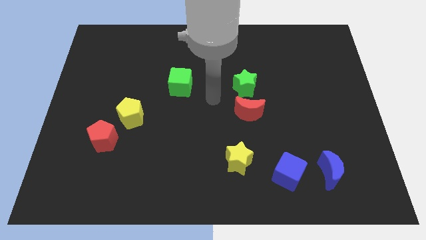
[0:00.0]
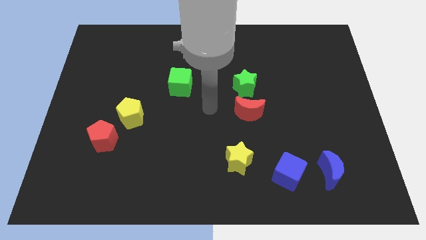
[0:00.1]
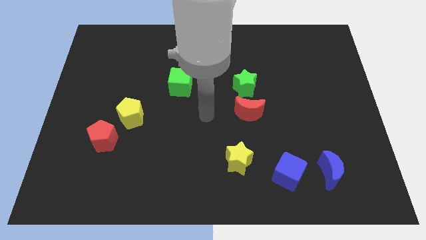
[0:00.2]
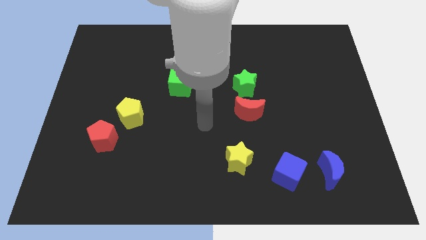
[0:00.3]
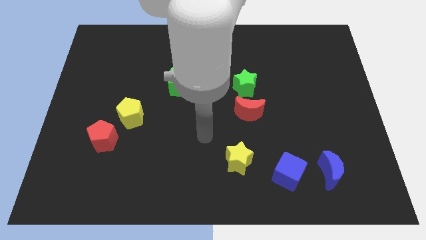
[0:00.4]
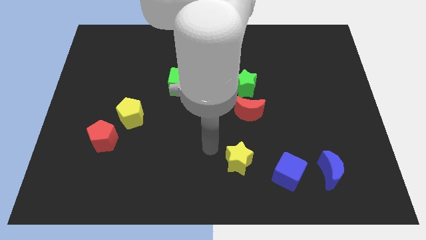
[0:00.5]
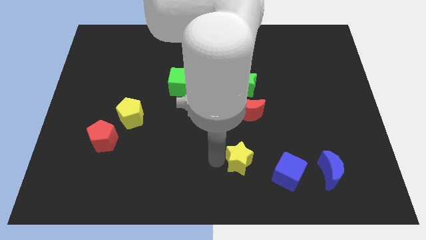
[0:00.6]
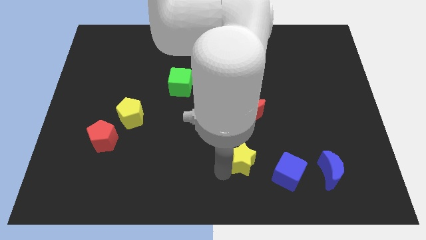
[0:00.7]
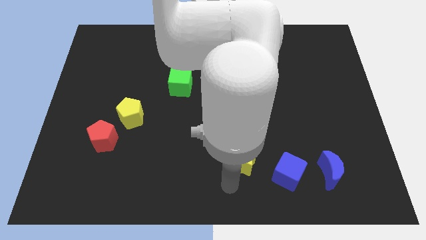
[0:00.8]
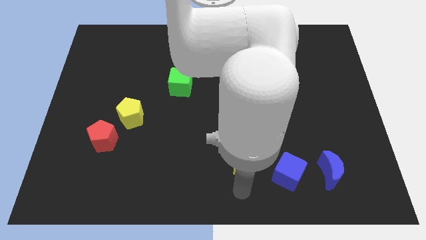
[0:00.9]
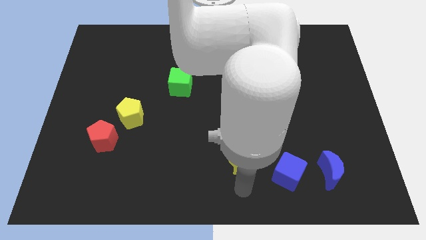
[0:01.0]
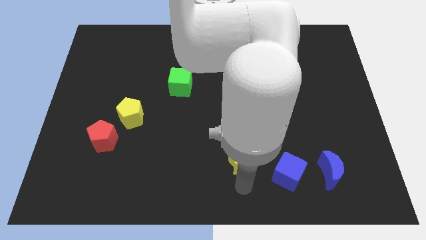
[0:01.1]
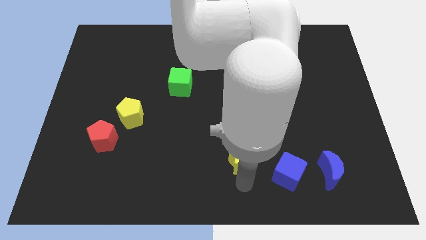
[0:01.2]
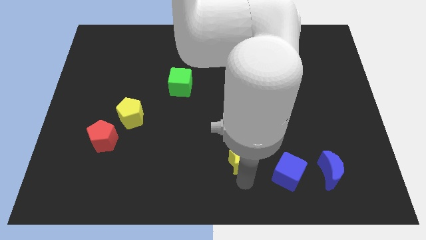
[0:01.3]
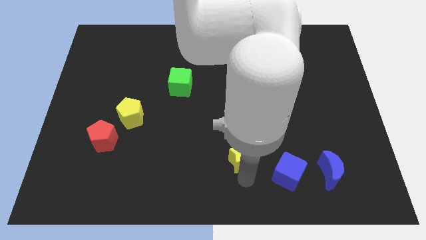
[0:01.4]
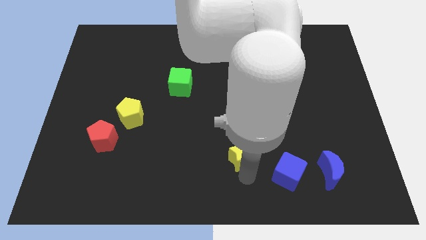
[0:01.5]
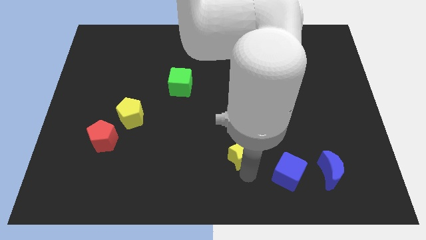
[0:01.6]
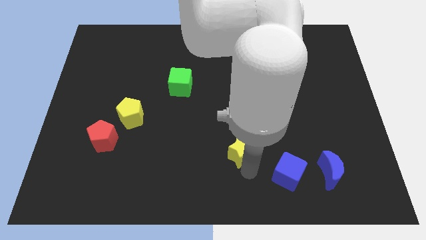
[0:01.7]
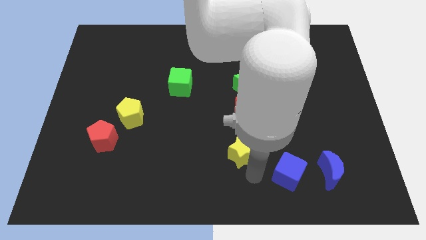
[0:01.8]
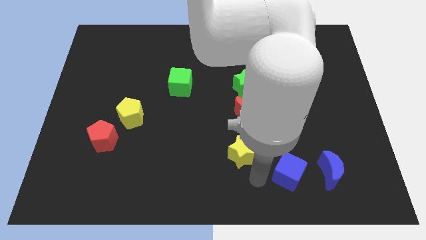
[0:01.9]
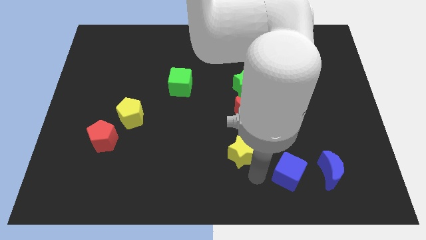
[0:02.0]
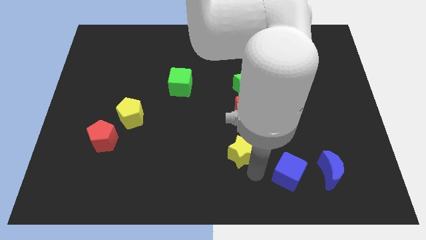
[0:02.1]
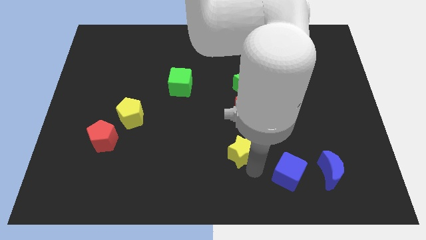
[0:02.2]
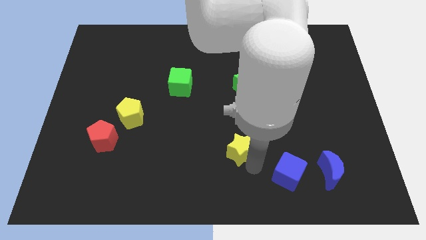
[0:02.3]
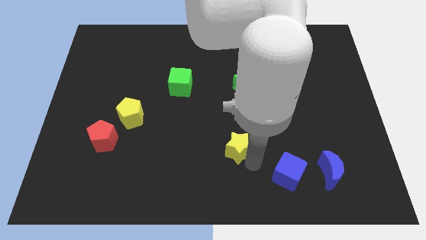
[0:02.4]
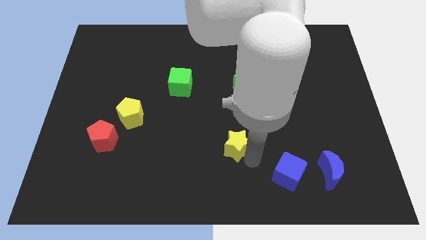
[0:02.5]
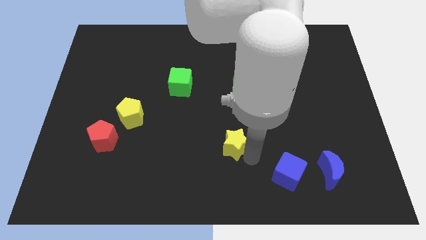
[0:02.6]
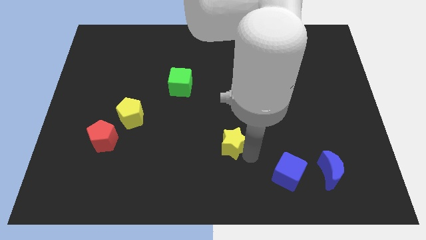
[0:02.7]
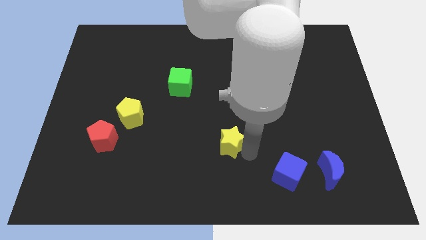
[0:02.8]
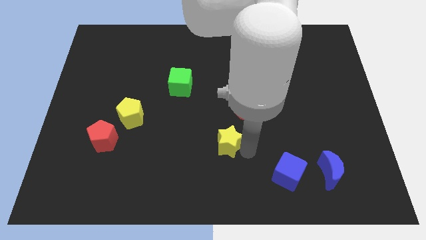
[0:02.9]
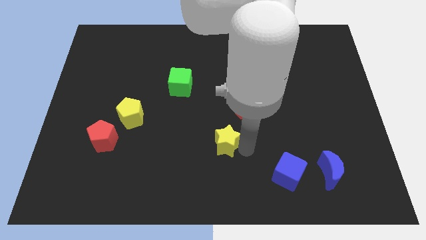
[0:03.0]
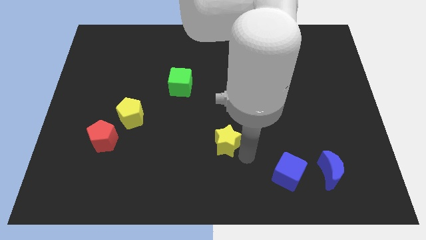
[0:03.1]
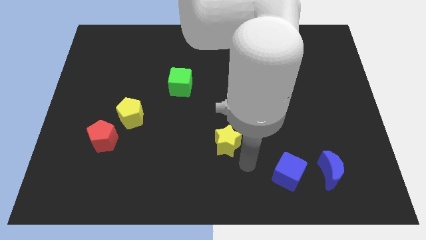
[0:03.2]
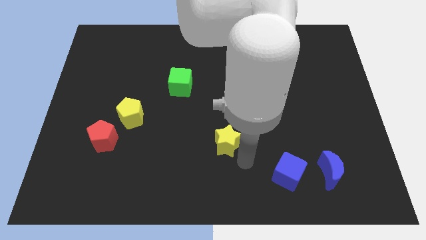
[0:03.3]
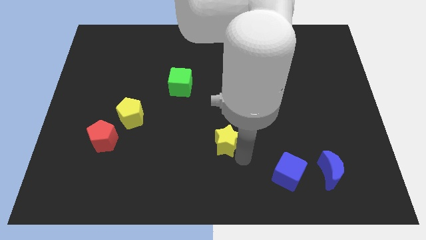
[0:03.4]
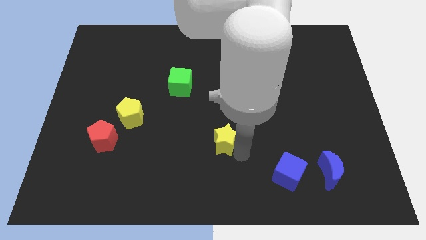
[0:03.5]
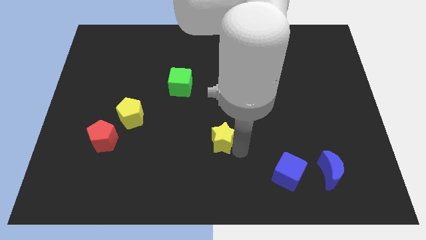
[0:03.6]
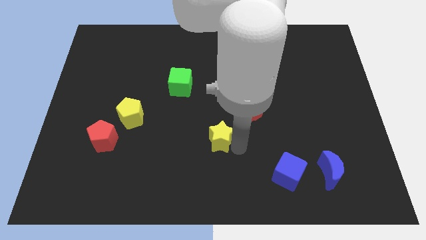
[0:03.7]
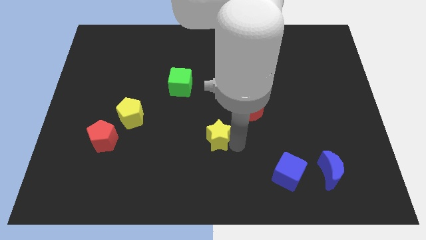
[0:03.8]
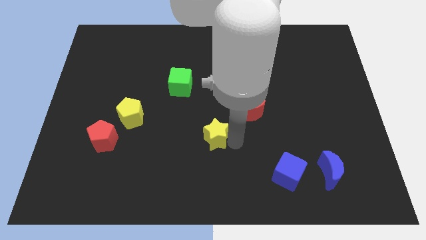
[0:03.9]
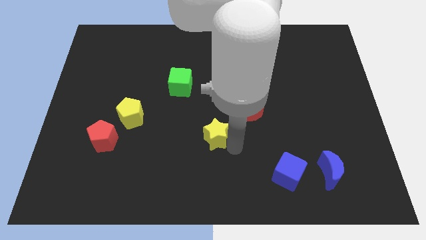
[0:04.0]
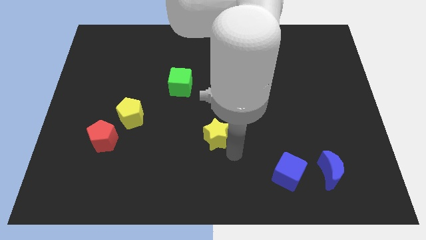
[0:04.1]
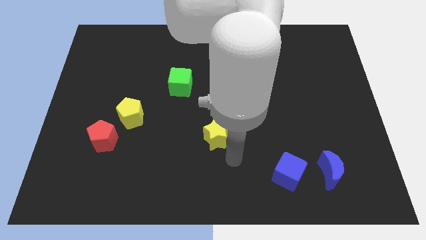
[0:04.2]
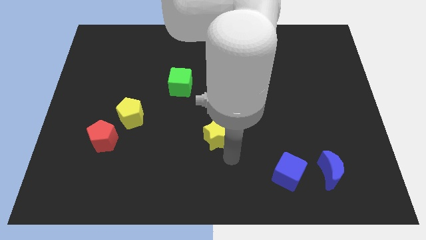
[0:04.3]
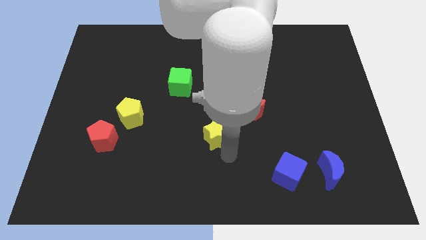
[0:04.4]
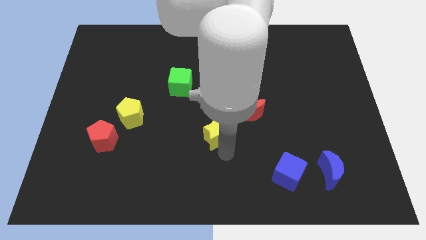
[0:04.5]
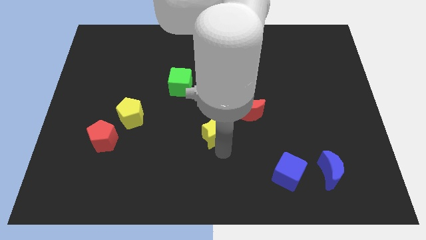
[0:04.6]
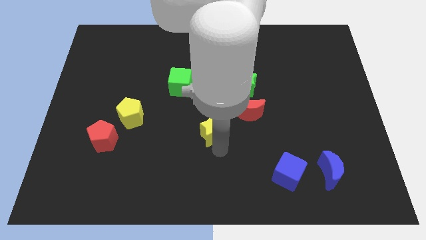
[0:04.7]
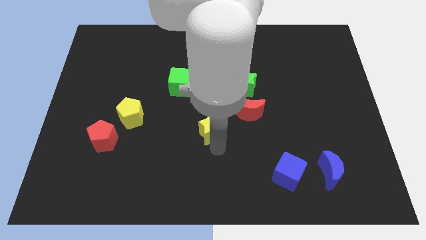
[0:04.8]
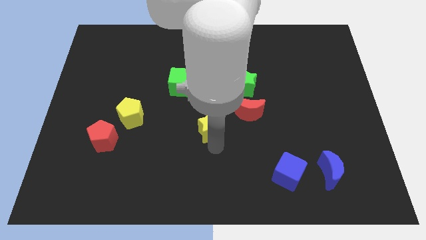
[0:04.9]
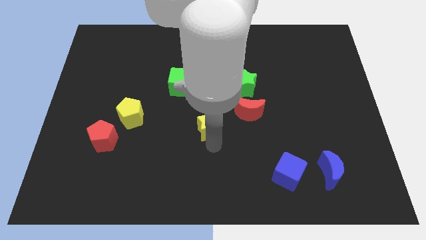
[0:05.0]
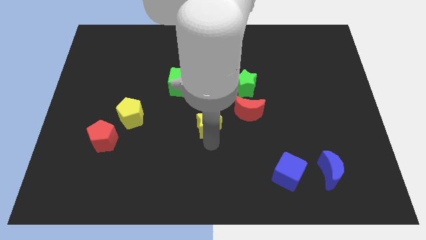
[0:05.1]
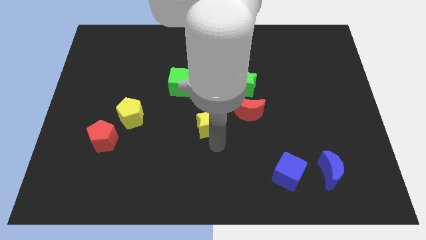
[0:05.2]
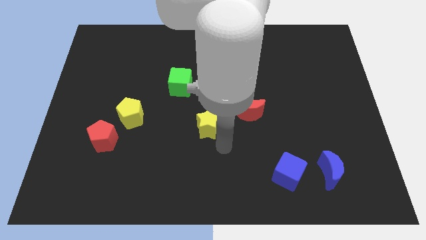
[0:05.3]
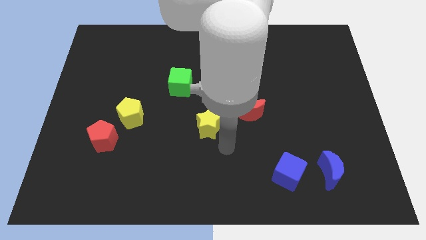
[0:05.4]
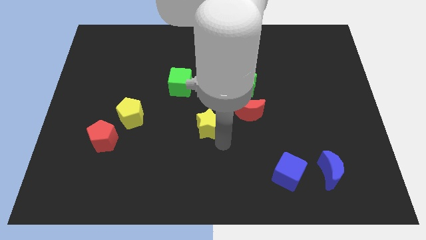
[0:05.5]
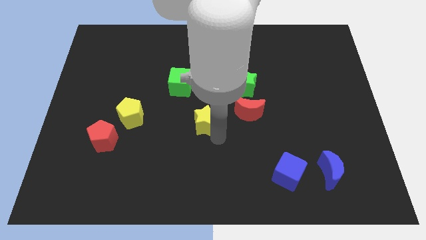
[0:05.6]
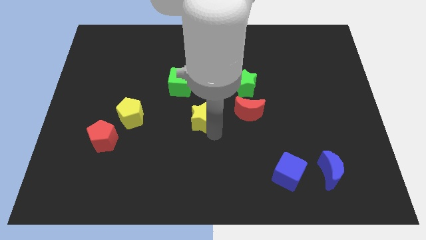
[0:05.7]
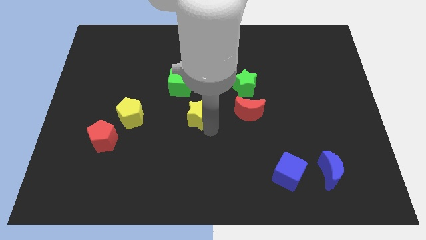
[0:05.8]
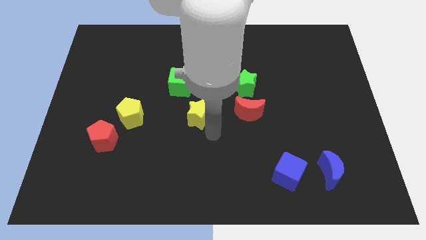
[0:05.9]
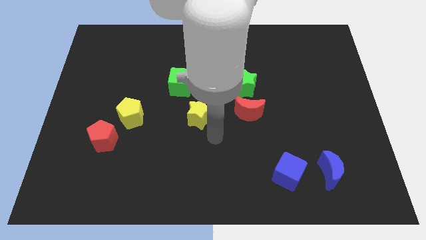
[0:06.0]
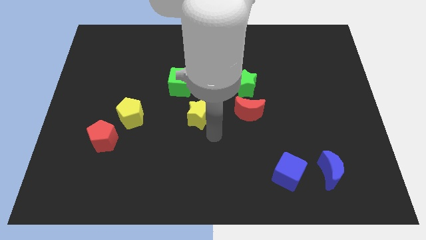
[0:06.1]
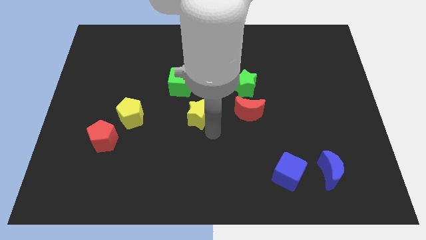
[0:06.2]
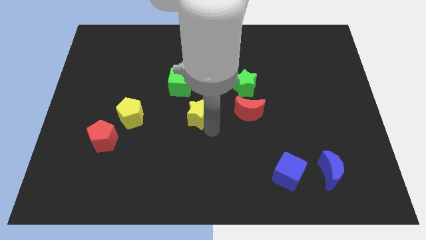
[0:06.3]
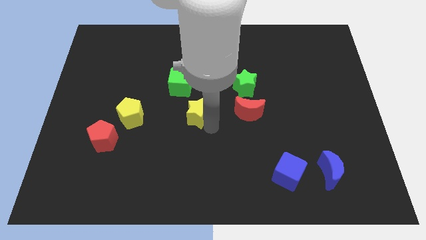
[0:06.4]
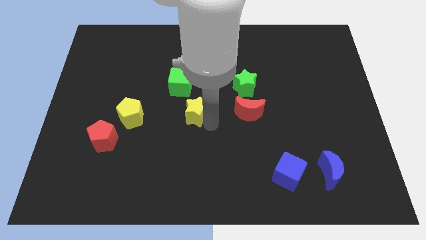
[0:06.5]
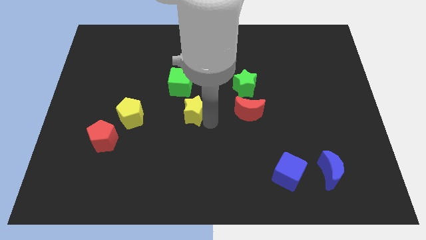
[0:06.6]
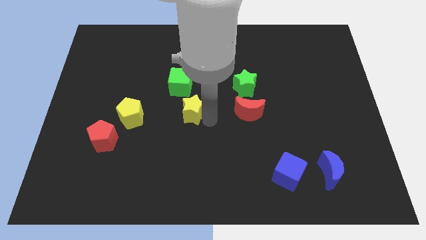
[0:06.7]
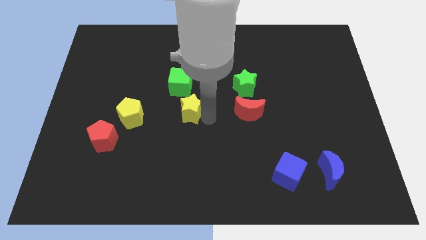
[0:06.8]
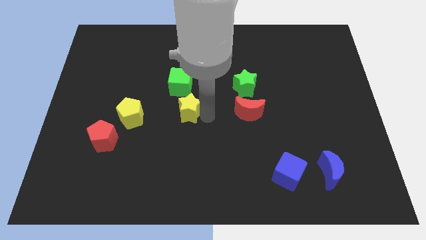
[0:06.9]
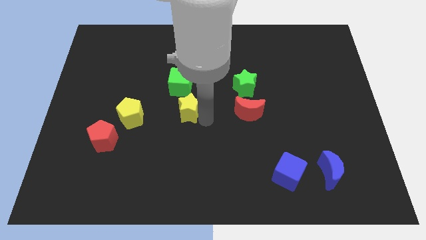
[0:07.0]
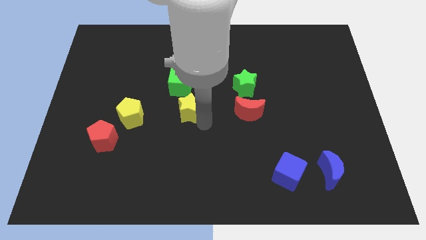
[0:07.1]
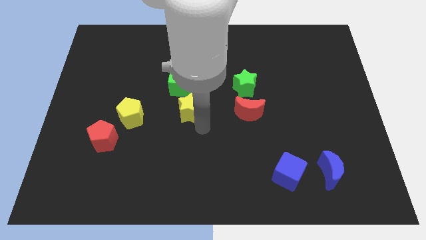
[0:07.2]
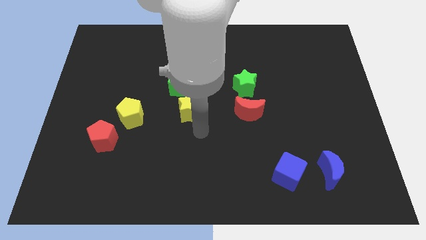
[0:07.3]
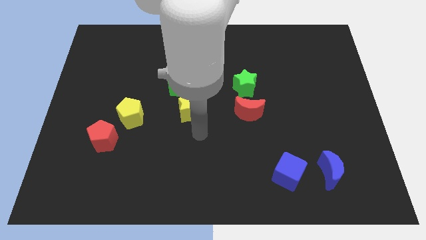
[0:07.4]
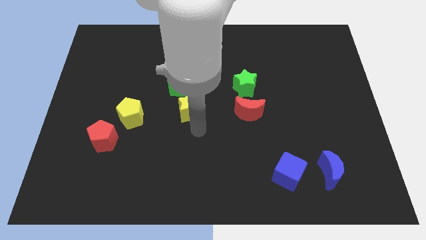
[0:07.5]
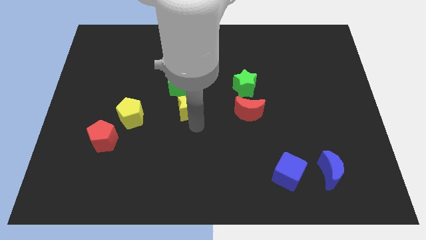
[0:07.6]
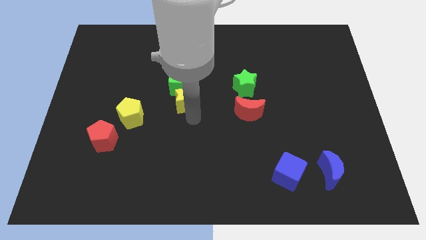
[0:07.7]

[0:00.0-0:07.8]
put the yellow star to the green cube
